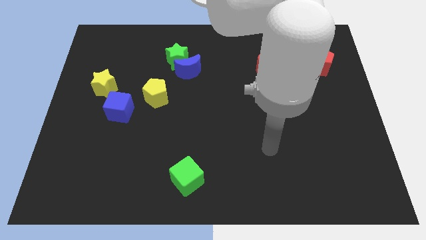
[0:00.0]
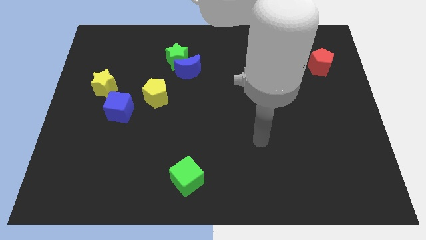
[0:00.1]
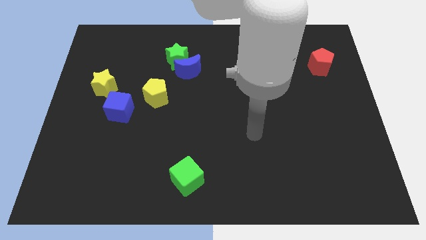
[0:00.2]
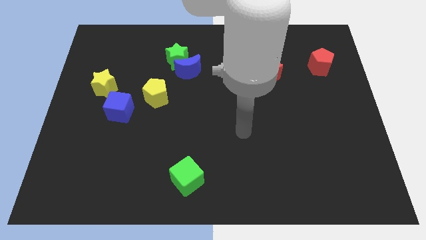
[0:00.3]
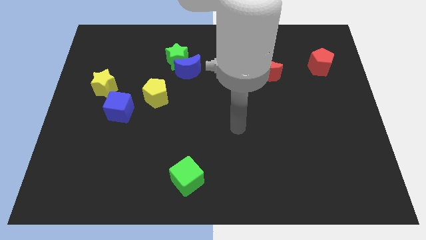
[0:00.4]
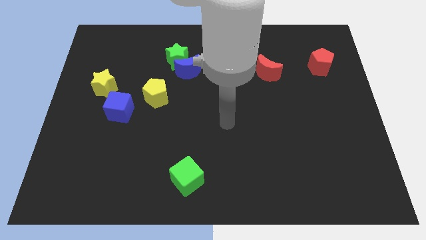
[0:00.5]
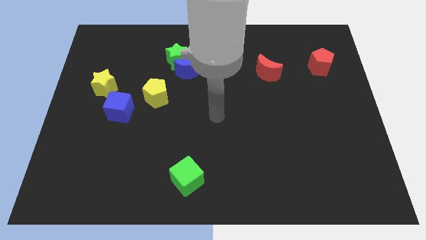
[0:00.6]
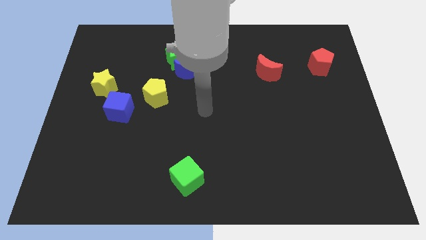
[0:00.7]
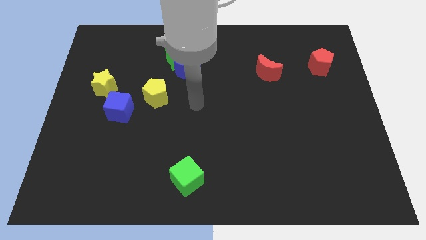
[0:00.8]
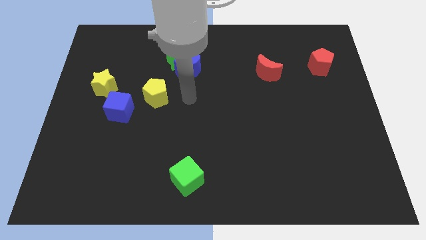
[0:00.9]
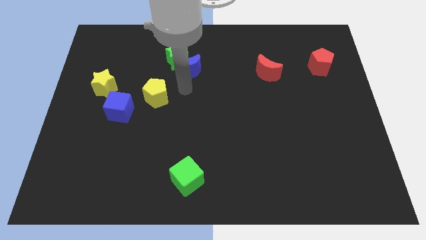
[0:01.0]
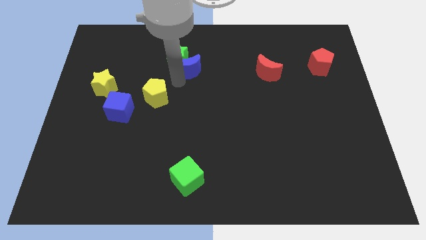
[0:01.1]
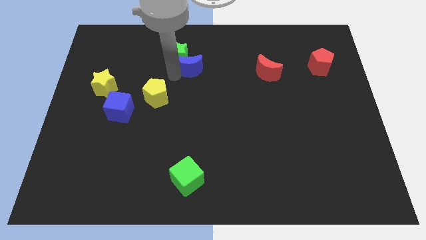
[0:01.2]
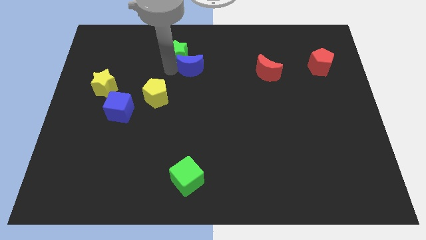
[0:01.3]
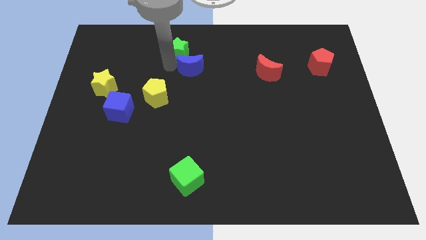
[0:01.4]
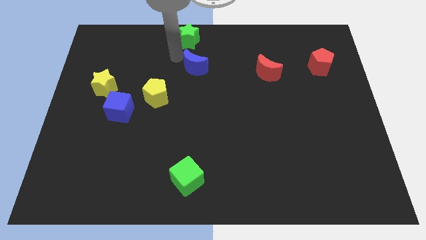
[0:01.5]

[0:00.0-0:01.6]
separate the blue moon from the green star

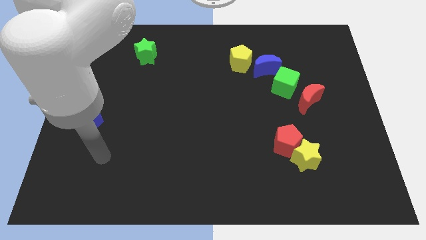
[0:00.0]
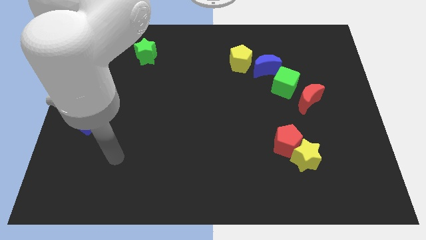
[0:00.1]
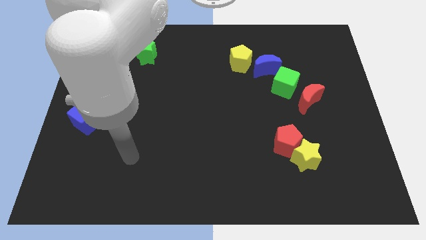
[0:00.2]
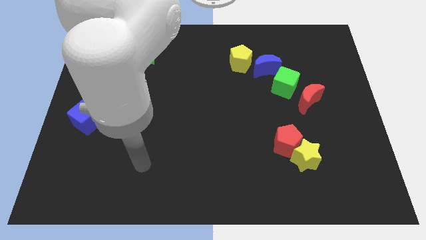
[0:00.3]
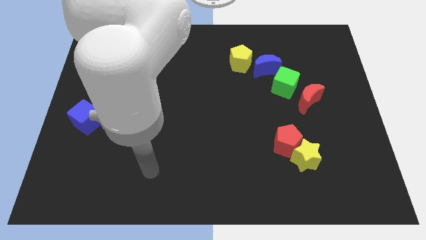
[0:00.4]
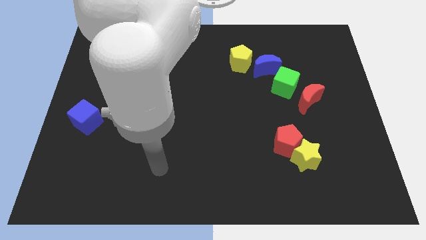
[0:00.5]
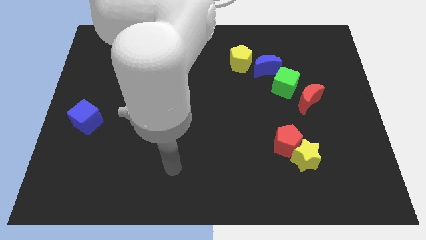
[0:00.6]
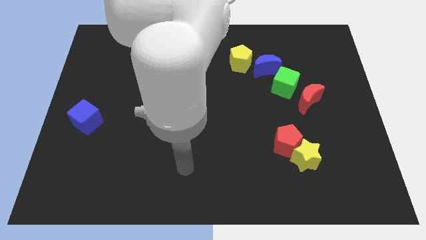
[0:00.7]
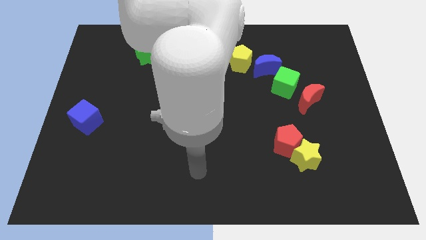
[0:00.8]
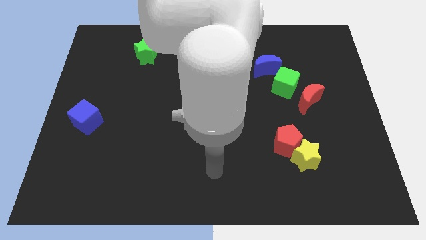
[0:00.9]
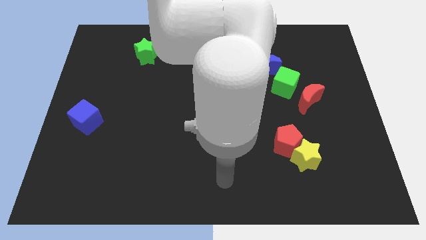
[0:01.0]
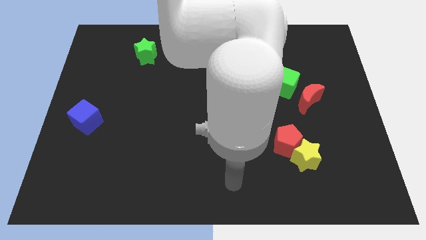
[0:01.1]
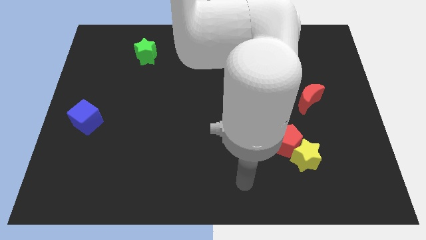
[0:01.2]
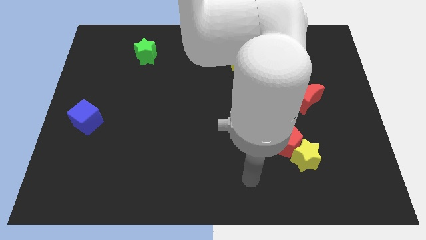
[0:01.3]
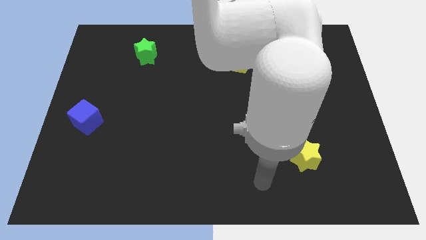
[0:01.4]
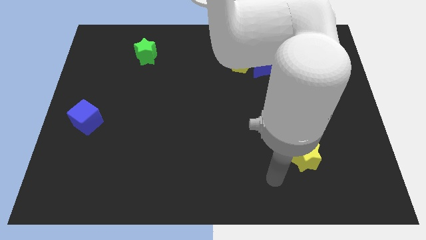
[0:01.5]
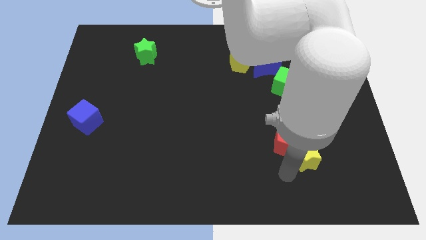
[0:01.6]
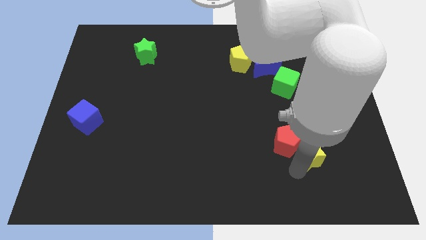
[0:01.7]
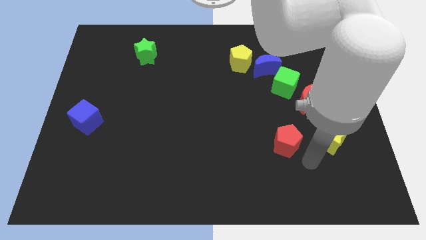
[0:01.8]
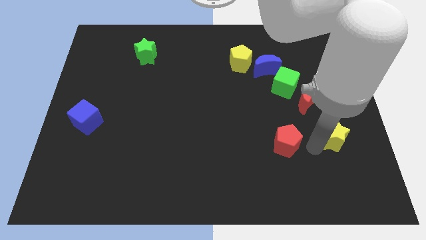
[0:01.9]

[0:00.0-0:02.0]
move the red pentagon away from the yellow star

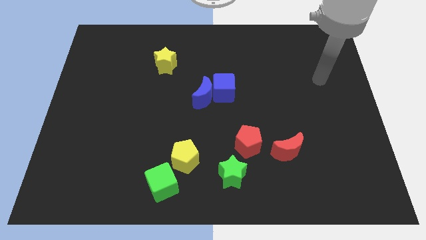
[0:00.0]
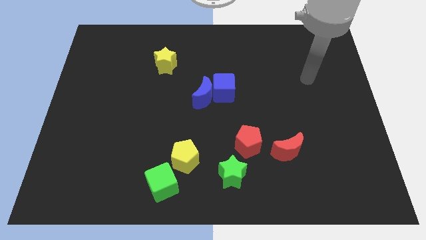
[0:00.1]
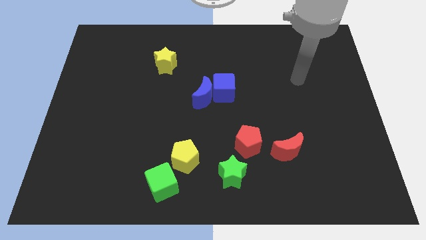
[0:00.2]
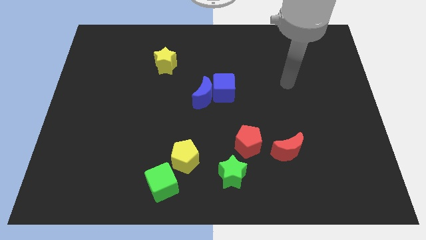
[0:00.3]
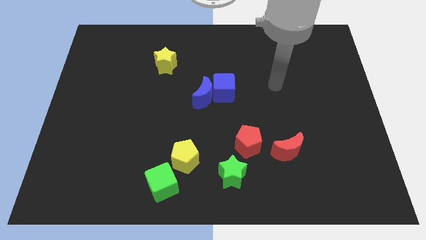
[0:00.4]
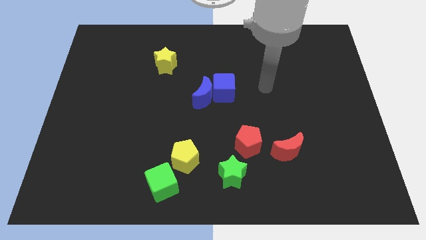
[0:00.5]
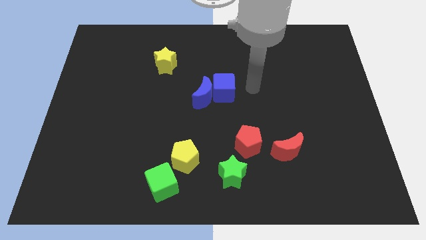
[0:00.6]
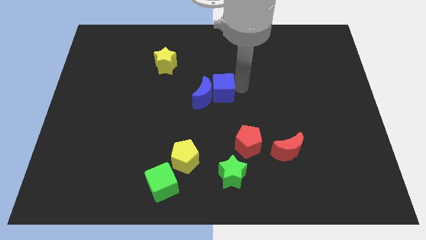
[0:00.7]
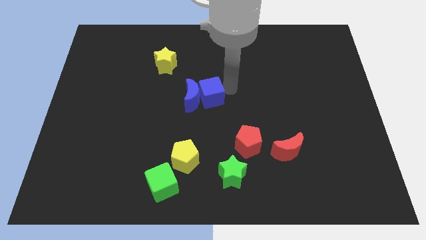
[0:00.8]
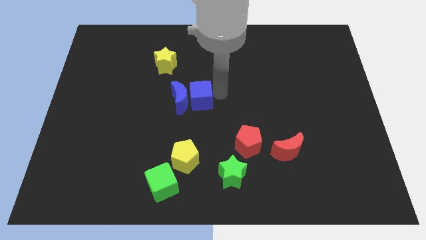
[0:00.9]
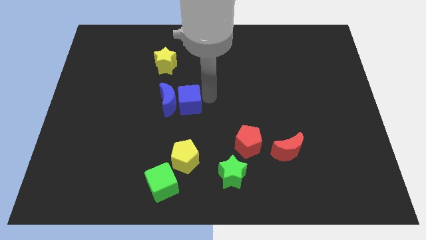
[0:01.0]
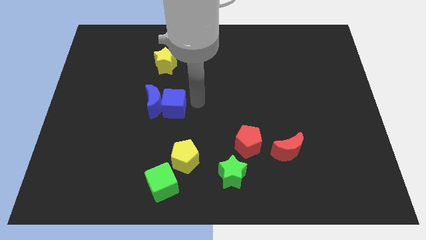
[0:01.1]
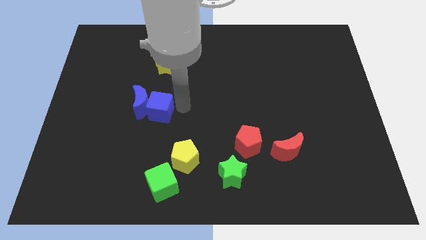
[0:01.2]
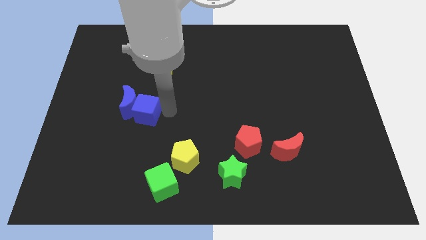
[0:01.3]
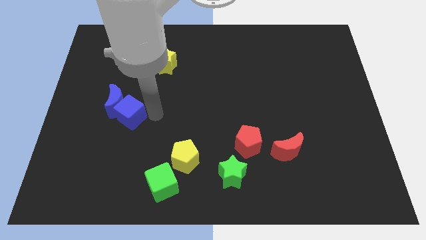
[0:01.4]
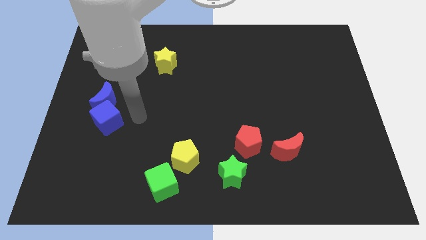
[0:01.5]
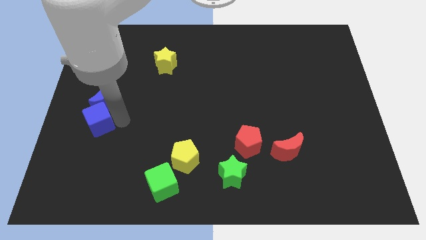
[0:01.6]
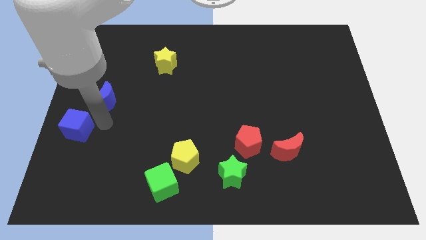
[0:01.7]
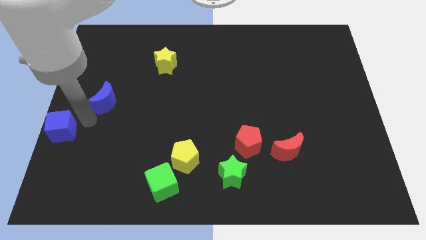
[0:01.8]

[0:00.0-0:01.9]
pull the blue moon apart from the blue cube

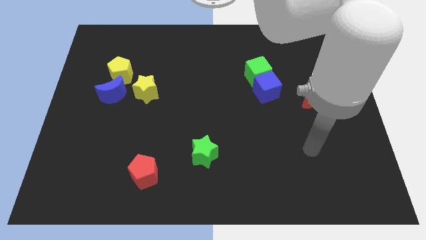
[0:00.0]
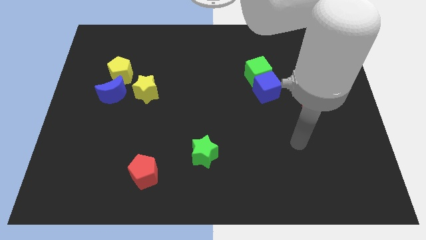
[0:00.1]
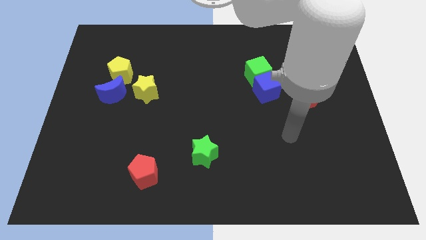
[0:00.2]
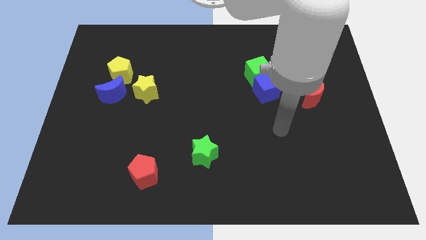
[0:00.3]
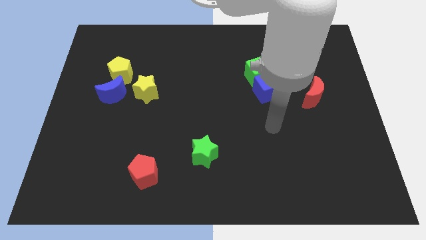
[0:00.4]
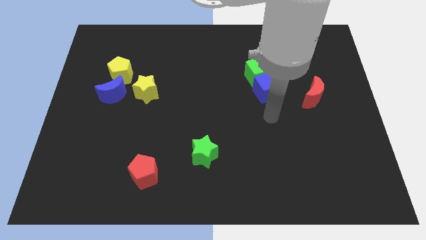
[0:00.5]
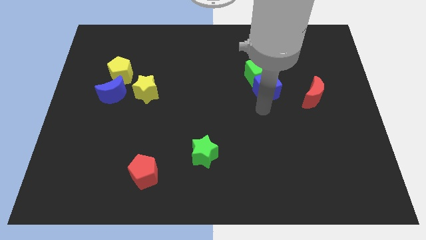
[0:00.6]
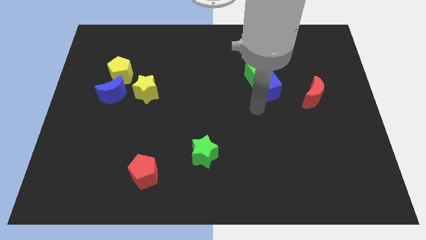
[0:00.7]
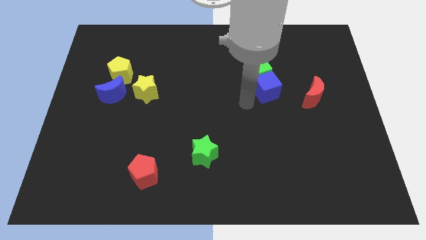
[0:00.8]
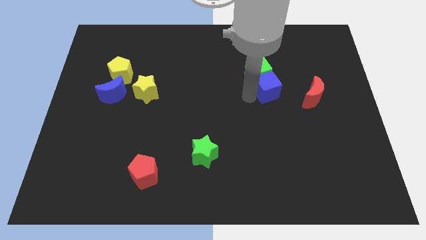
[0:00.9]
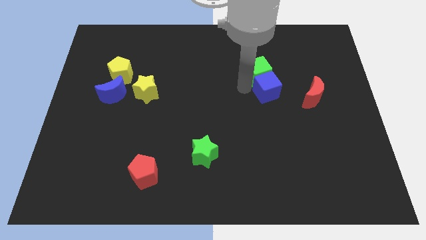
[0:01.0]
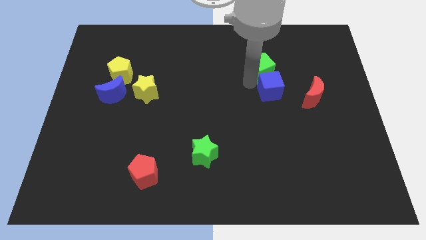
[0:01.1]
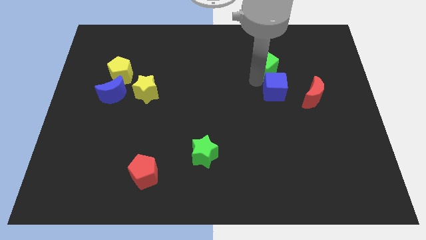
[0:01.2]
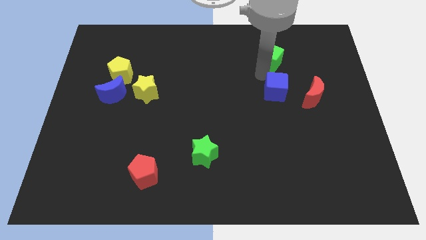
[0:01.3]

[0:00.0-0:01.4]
move the blue cube away from the green cube

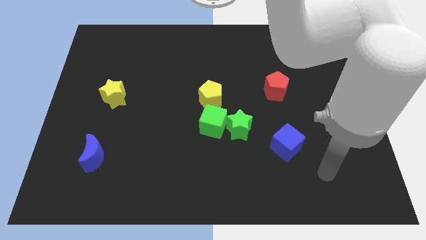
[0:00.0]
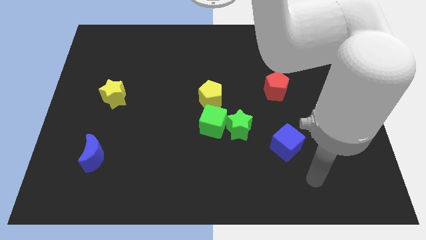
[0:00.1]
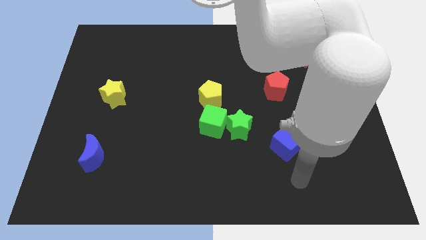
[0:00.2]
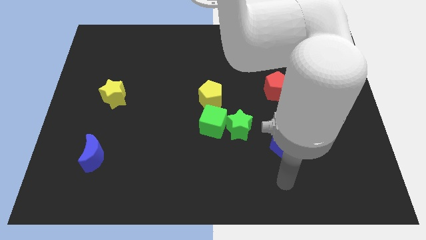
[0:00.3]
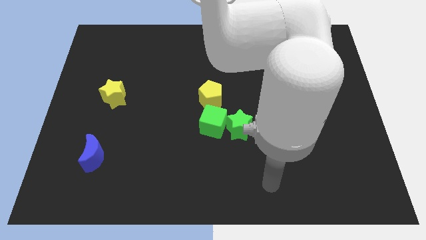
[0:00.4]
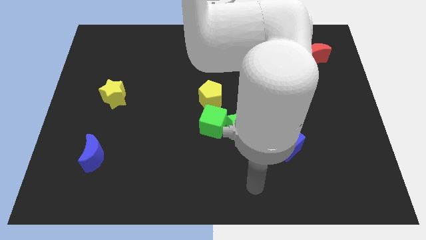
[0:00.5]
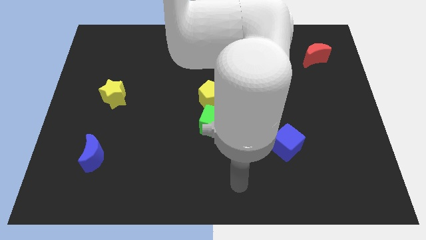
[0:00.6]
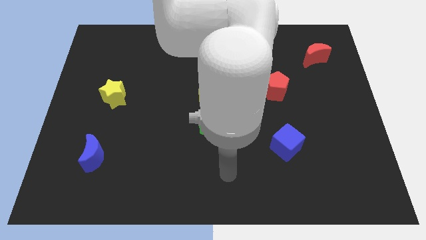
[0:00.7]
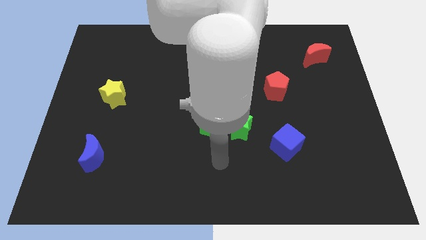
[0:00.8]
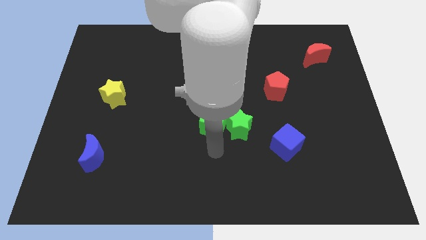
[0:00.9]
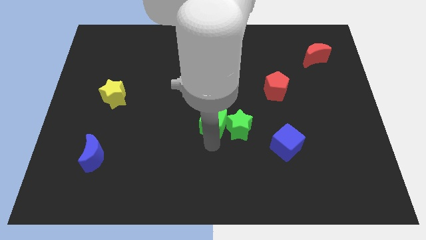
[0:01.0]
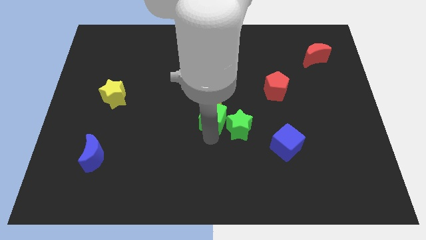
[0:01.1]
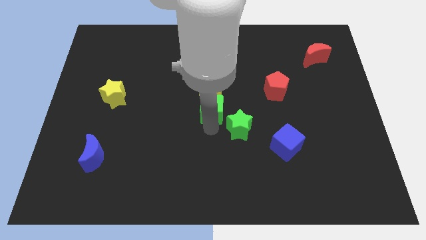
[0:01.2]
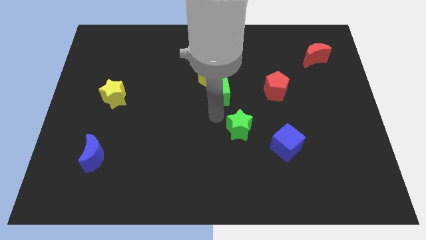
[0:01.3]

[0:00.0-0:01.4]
move the green star away from the green cube

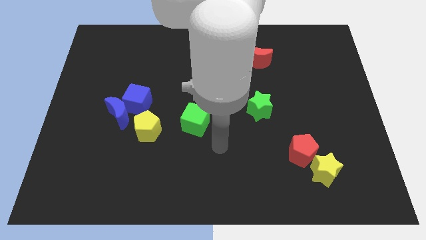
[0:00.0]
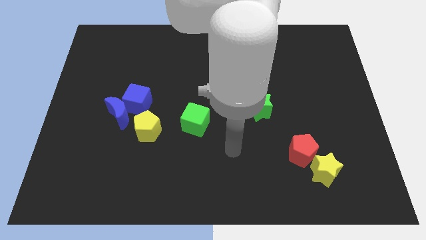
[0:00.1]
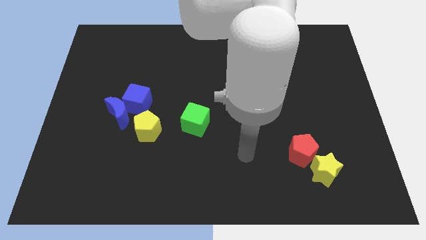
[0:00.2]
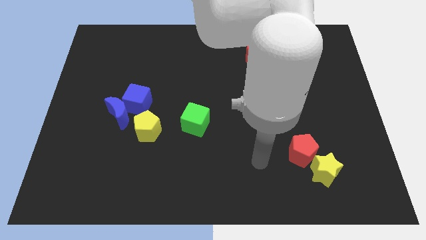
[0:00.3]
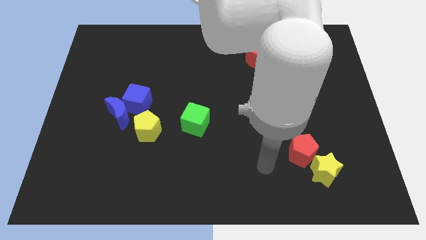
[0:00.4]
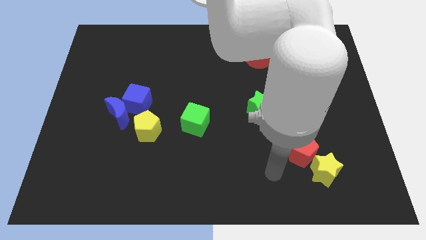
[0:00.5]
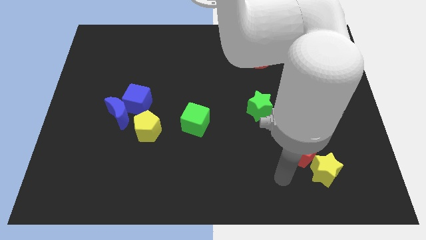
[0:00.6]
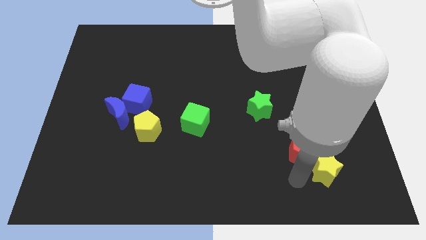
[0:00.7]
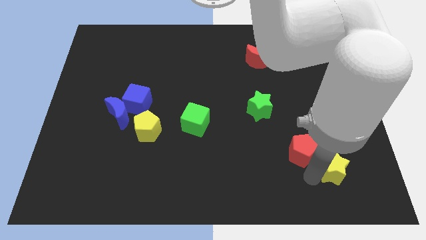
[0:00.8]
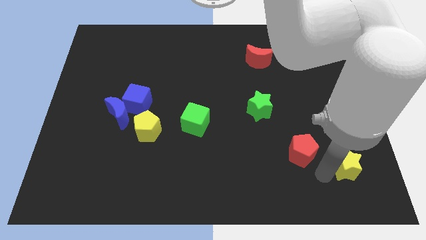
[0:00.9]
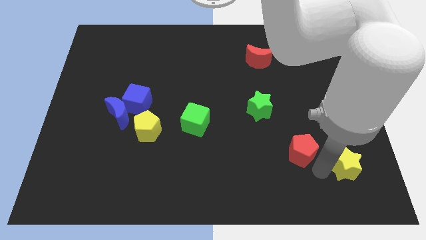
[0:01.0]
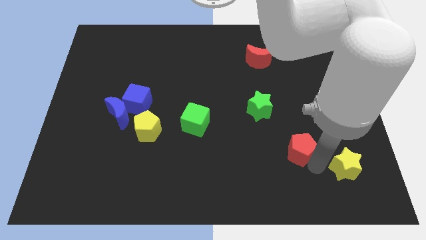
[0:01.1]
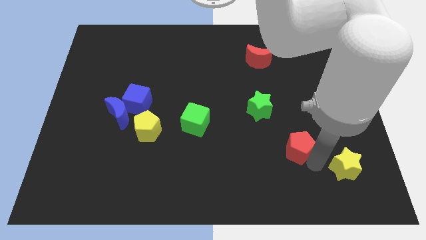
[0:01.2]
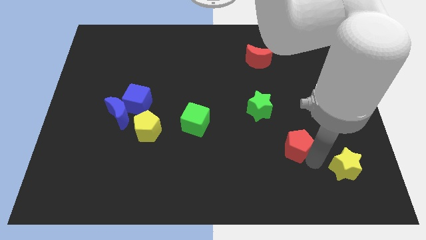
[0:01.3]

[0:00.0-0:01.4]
separate the red pentagon from the yellow star
